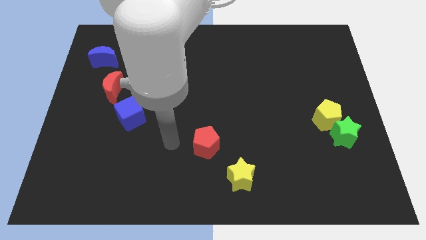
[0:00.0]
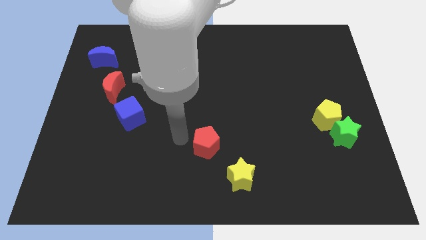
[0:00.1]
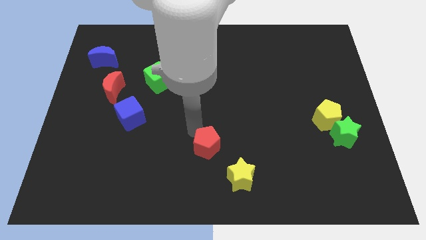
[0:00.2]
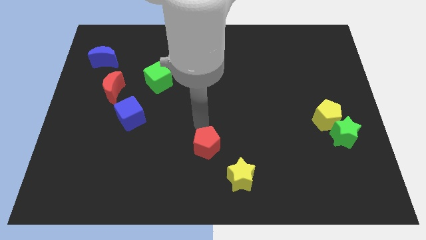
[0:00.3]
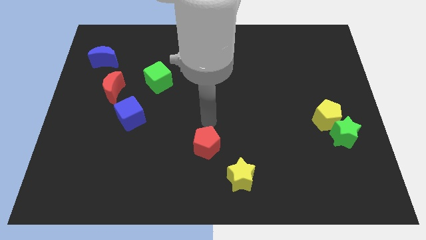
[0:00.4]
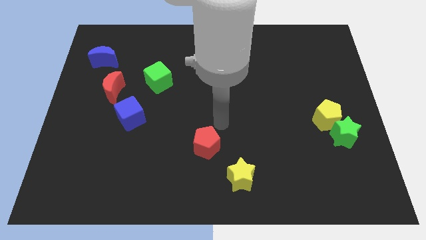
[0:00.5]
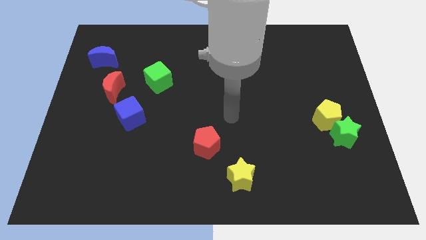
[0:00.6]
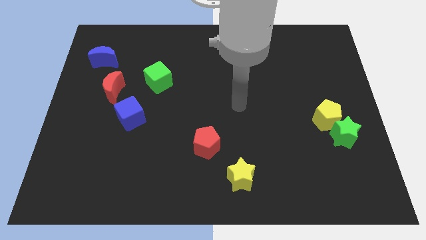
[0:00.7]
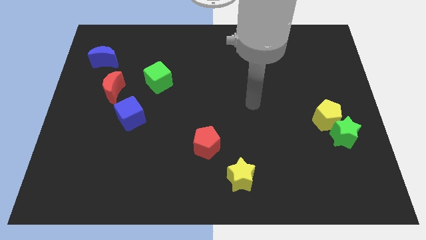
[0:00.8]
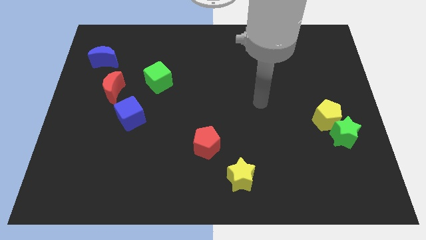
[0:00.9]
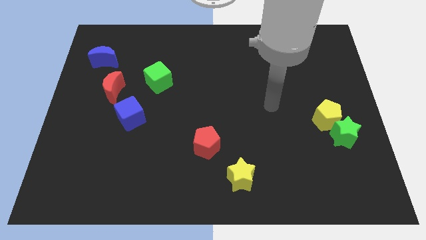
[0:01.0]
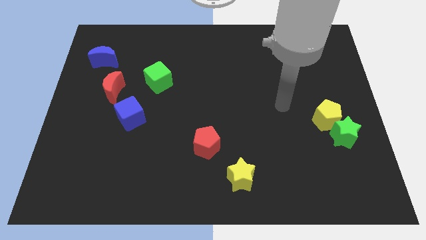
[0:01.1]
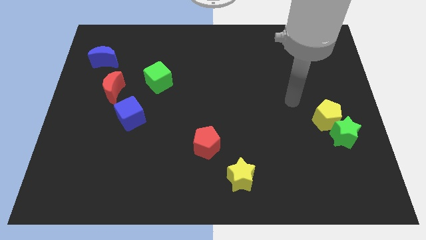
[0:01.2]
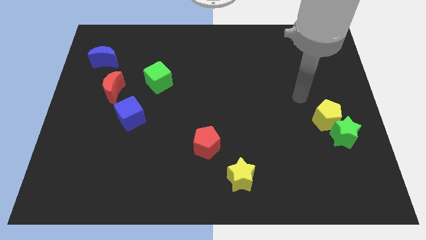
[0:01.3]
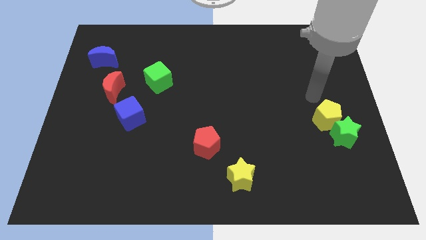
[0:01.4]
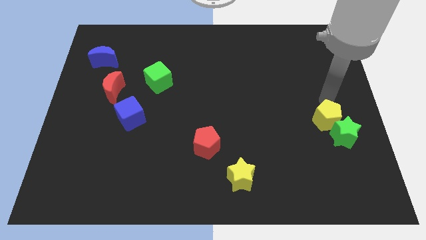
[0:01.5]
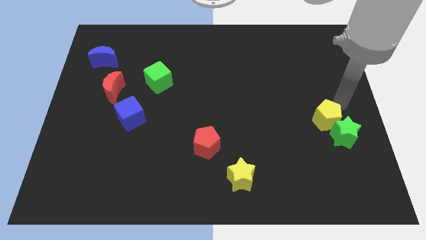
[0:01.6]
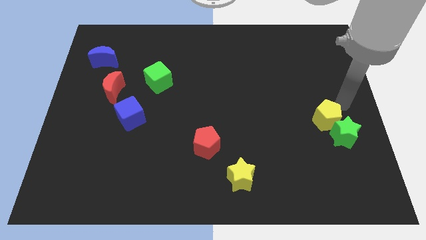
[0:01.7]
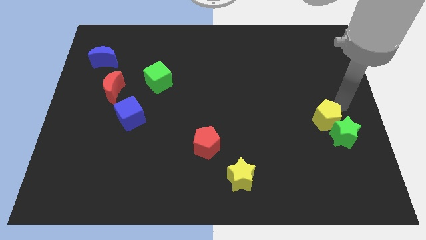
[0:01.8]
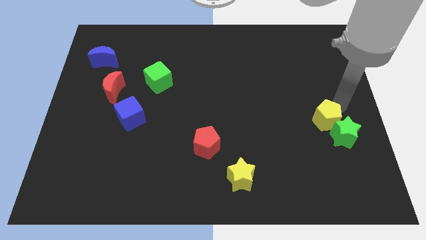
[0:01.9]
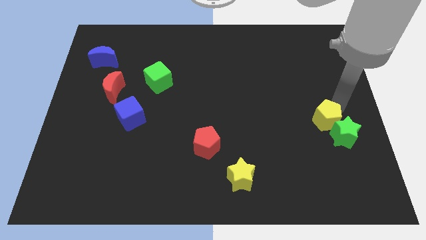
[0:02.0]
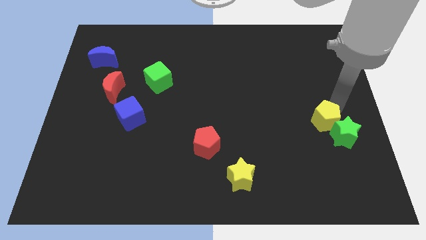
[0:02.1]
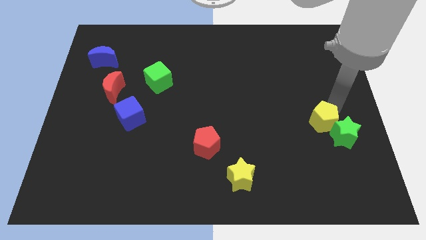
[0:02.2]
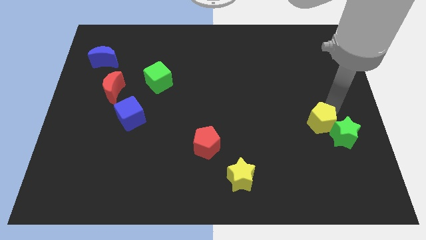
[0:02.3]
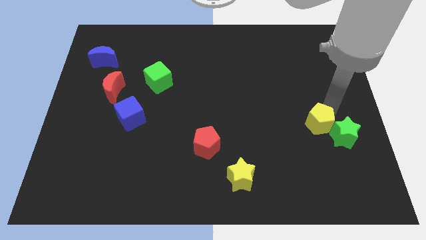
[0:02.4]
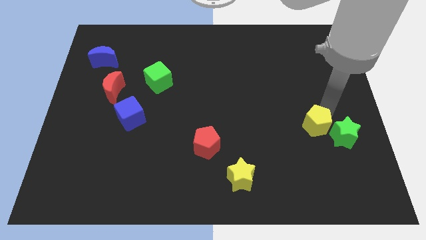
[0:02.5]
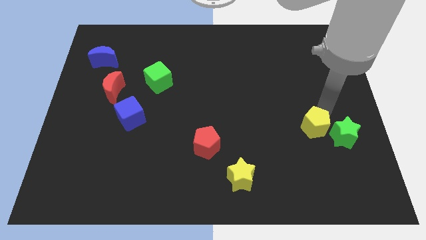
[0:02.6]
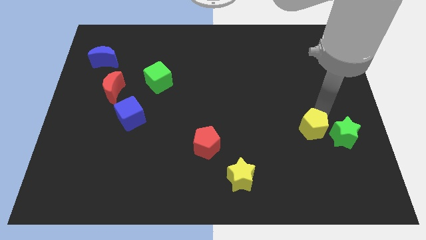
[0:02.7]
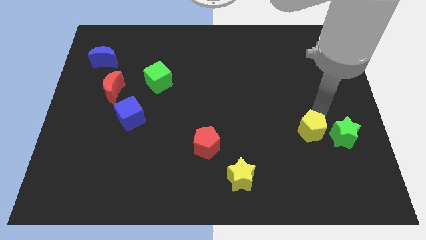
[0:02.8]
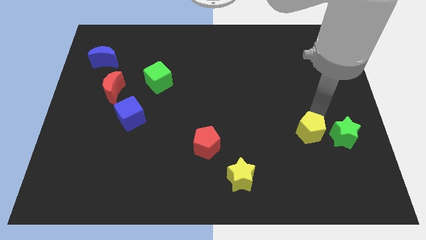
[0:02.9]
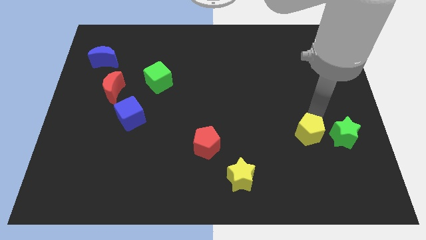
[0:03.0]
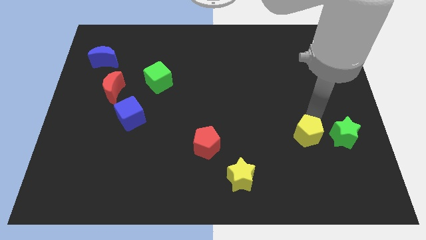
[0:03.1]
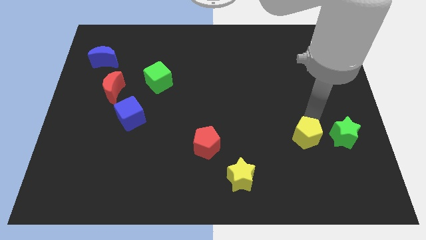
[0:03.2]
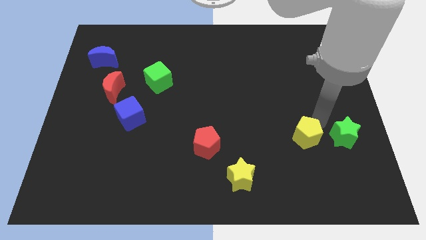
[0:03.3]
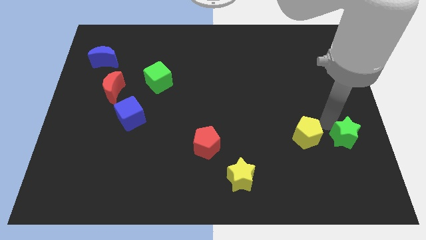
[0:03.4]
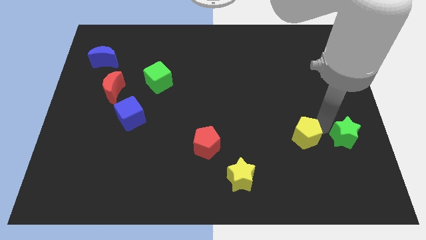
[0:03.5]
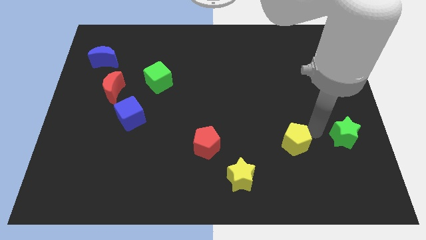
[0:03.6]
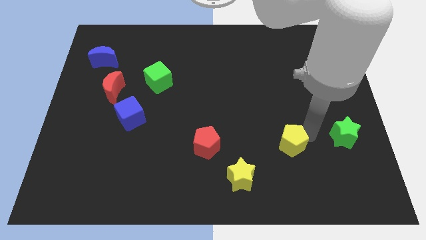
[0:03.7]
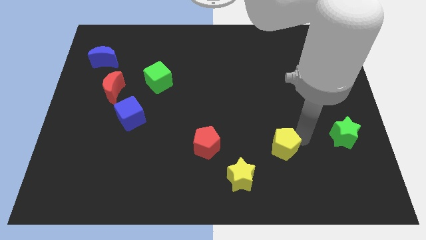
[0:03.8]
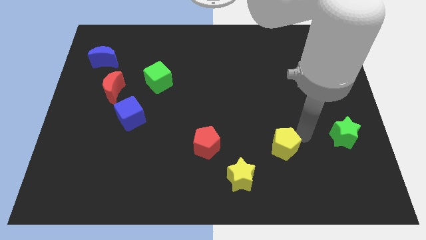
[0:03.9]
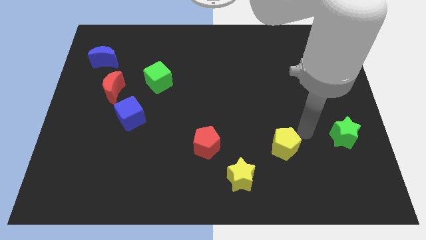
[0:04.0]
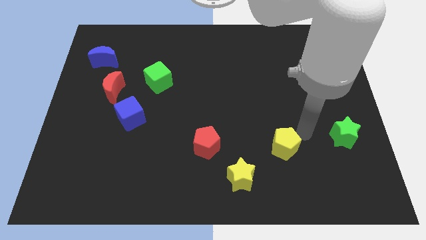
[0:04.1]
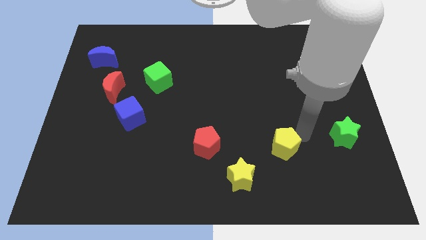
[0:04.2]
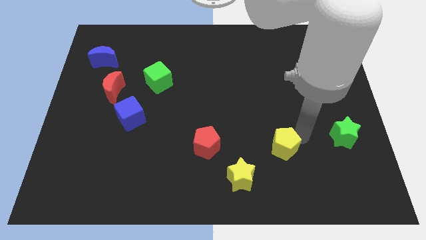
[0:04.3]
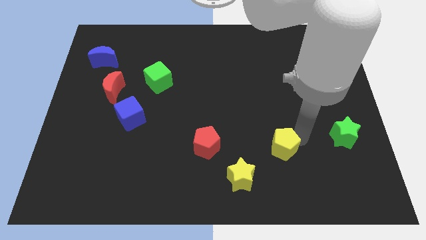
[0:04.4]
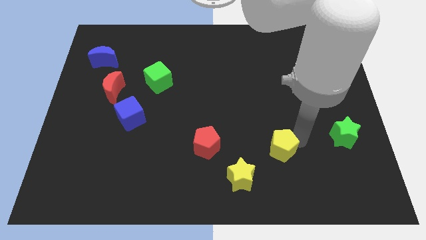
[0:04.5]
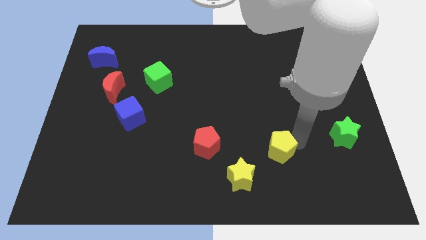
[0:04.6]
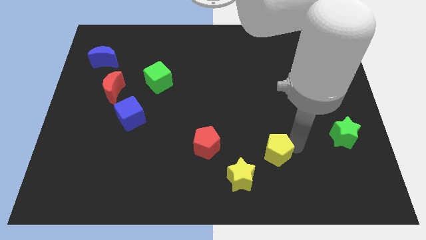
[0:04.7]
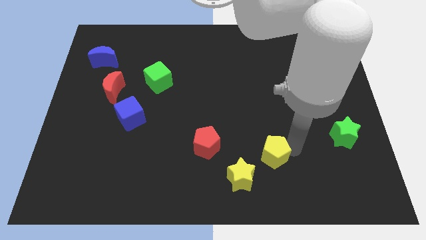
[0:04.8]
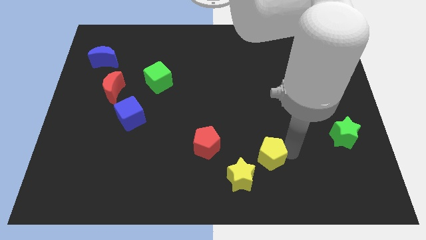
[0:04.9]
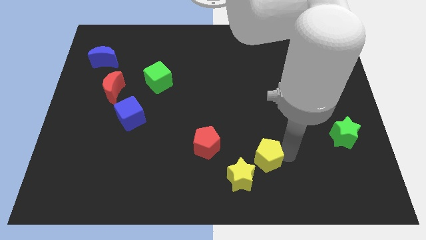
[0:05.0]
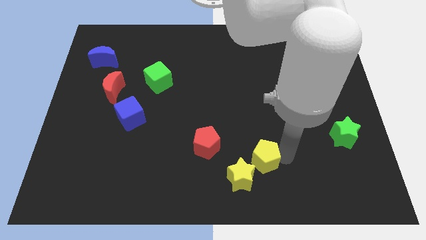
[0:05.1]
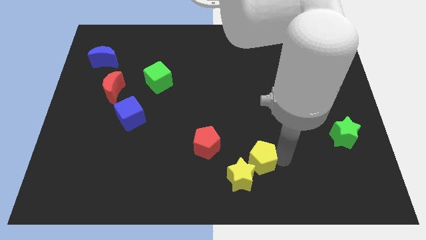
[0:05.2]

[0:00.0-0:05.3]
push the yellow pentagon next to the yellow star

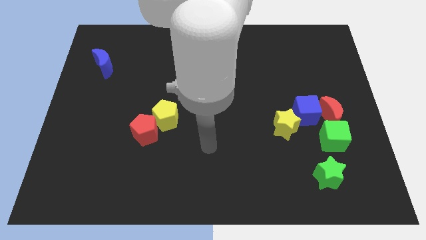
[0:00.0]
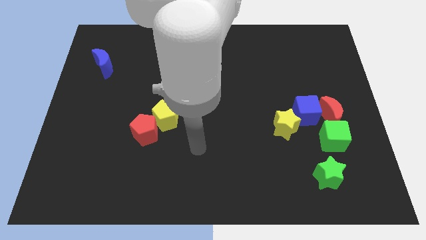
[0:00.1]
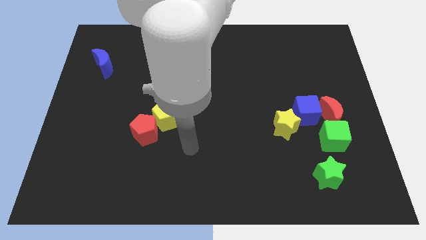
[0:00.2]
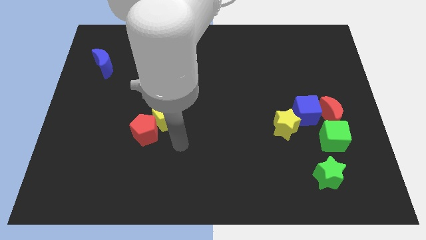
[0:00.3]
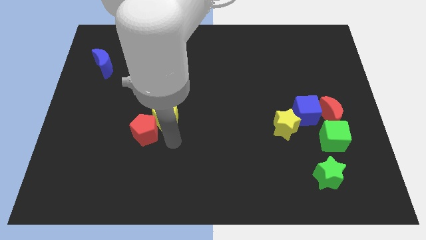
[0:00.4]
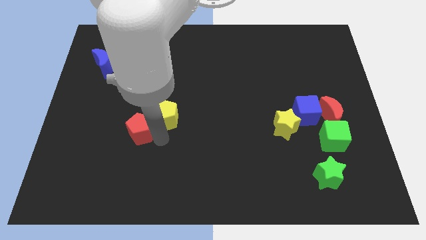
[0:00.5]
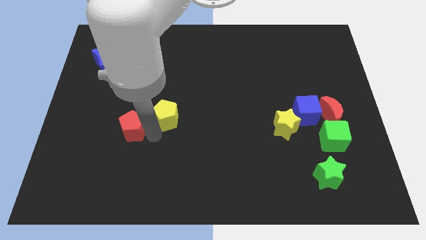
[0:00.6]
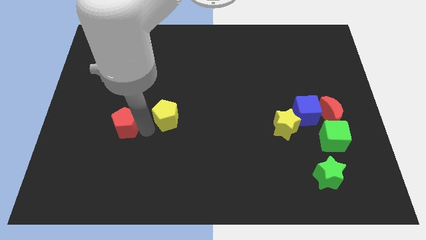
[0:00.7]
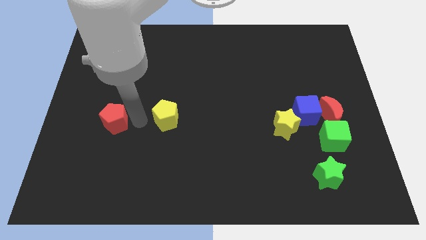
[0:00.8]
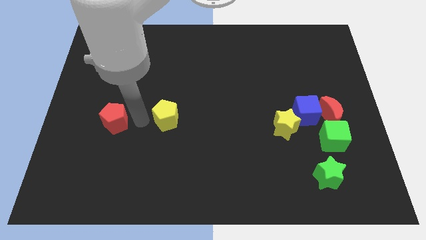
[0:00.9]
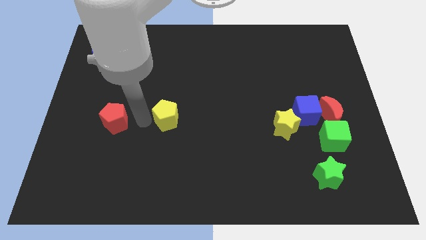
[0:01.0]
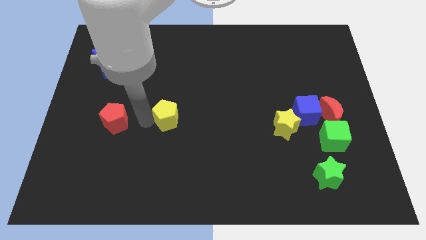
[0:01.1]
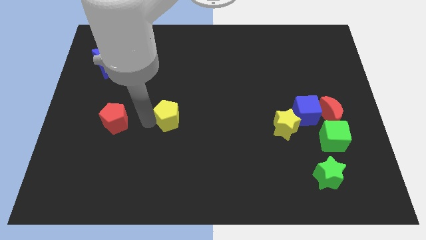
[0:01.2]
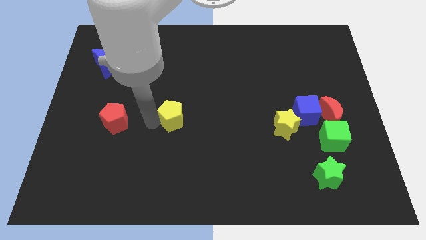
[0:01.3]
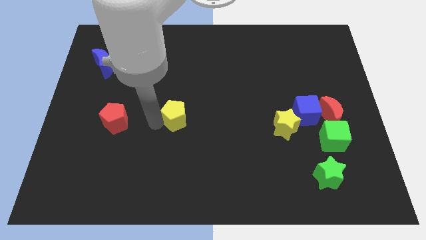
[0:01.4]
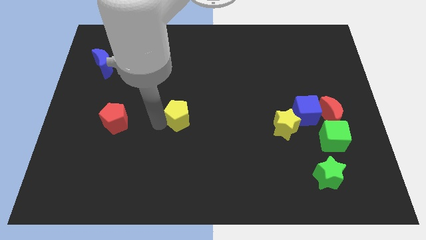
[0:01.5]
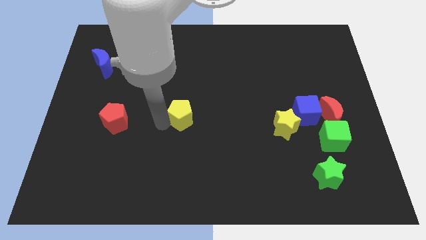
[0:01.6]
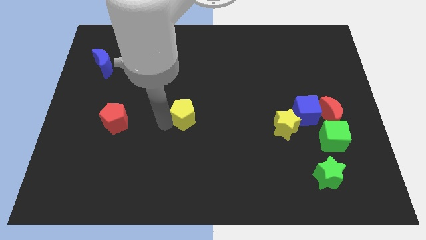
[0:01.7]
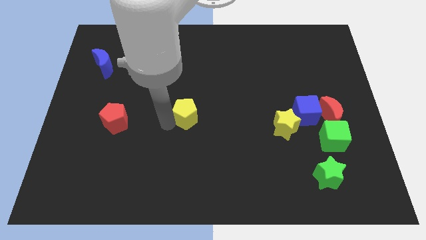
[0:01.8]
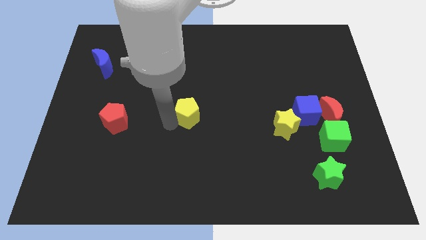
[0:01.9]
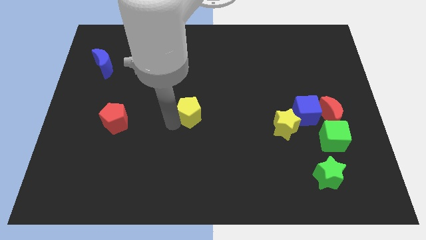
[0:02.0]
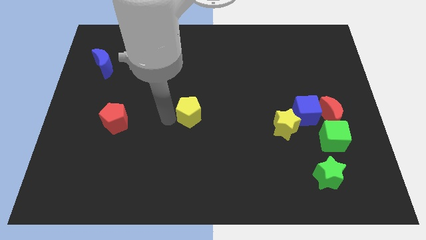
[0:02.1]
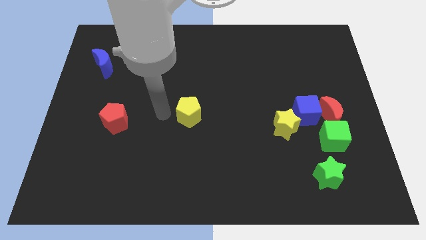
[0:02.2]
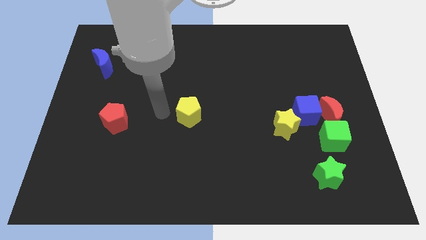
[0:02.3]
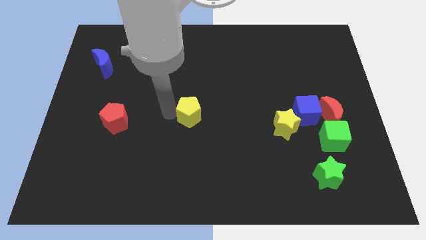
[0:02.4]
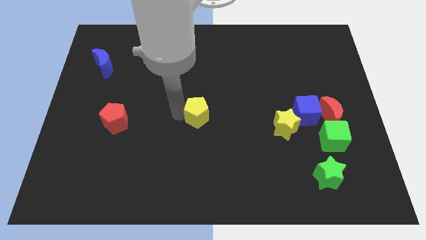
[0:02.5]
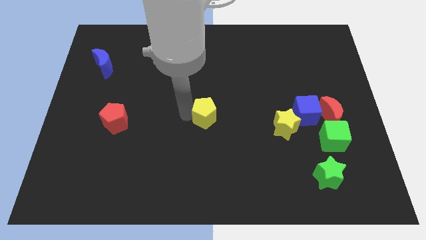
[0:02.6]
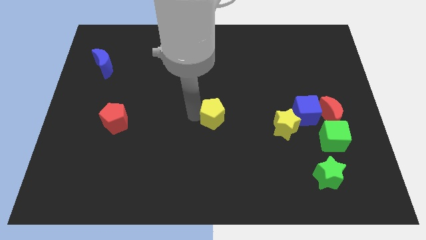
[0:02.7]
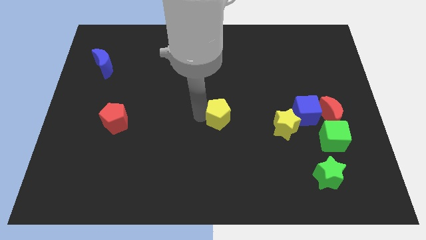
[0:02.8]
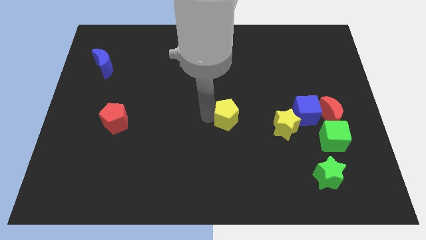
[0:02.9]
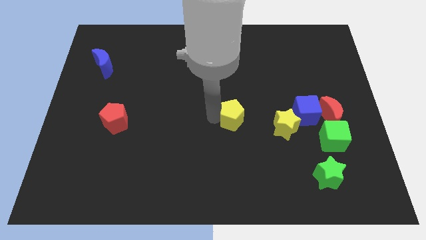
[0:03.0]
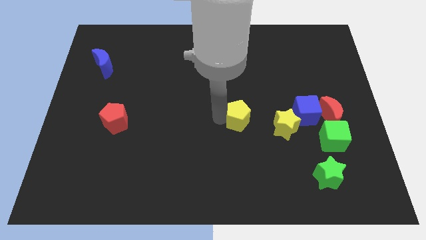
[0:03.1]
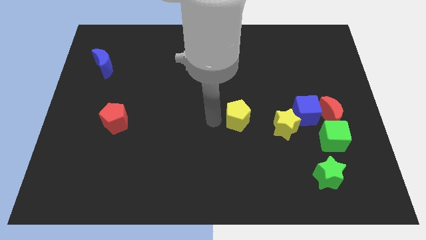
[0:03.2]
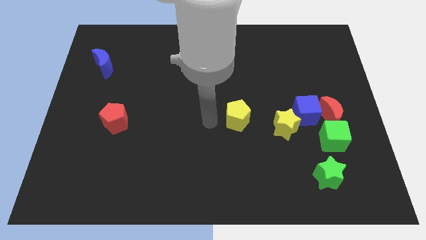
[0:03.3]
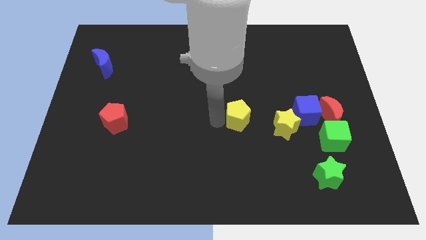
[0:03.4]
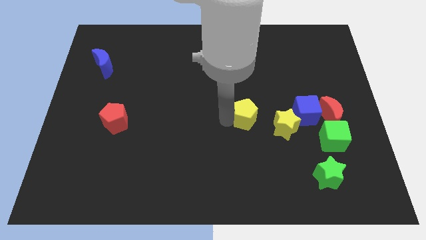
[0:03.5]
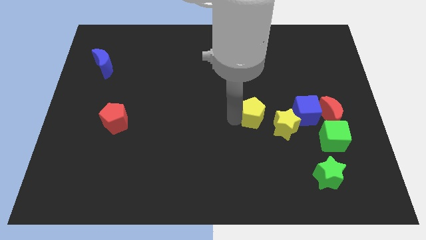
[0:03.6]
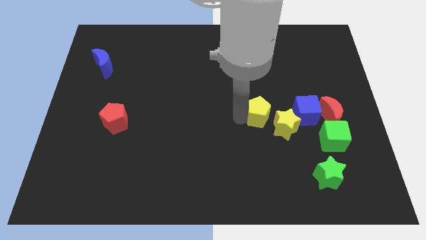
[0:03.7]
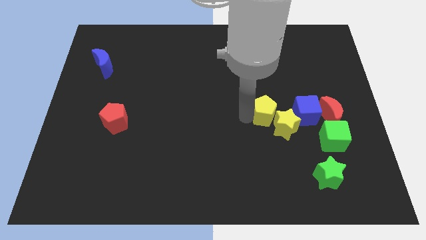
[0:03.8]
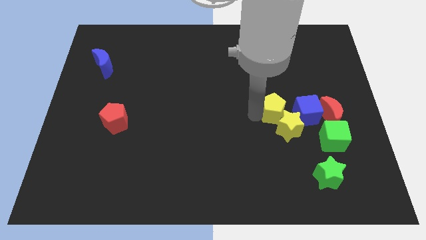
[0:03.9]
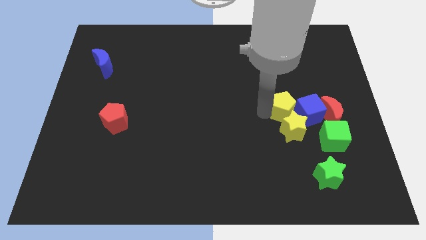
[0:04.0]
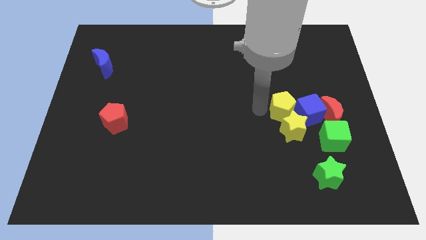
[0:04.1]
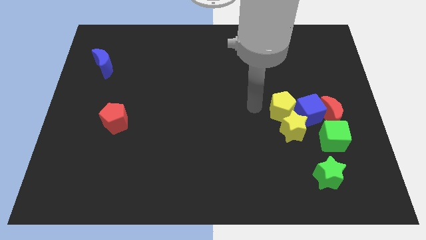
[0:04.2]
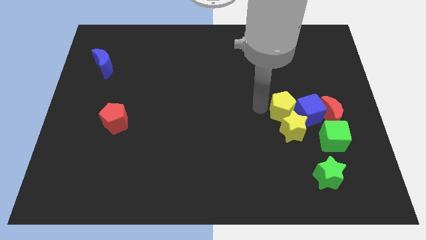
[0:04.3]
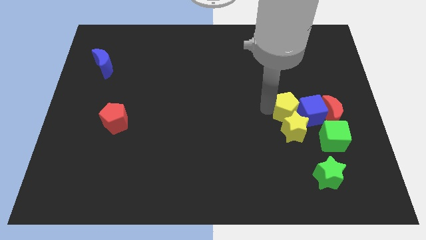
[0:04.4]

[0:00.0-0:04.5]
slide the yellow pentagon towards the blue cube
